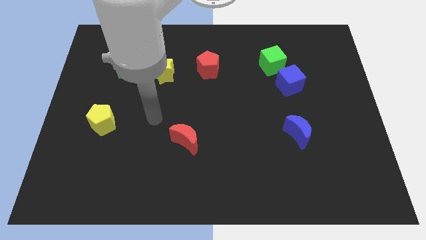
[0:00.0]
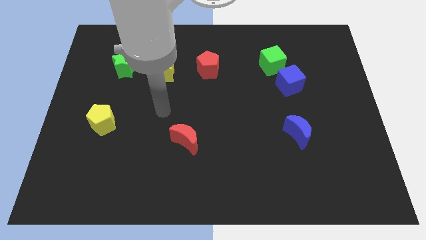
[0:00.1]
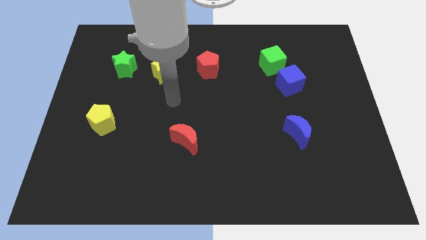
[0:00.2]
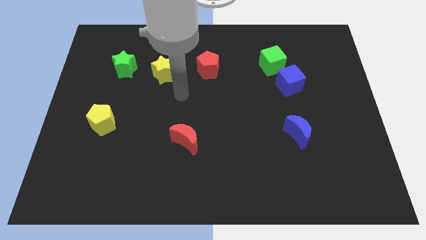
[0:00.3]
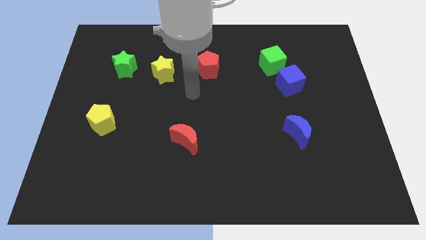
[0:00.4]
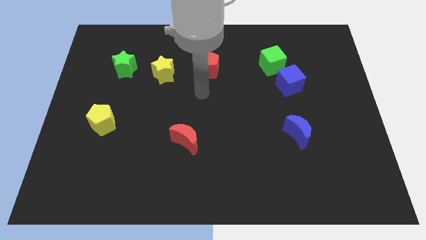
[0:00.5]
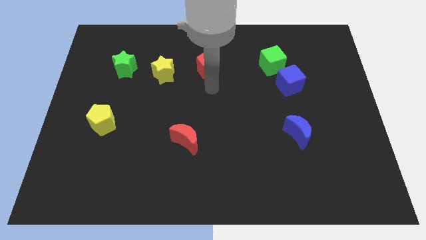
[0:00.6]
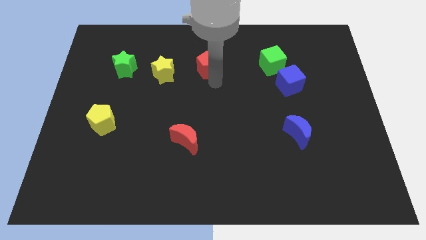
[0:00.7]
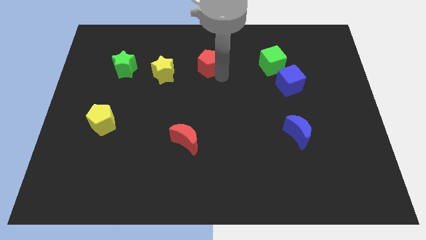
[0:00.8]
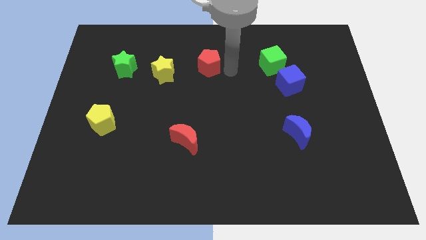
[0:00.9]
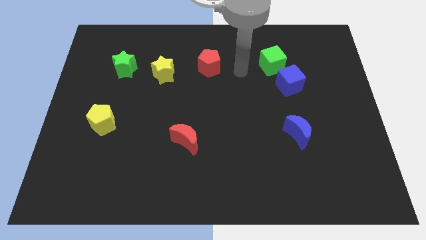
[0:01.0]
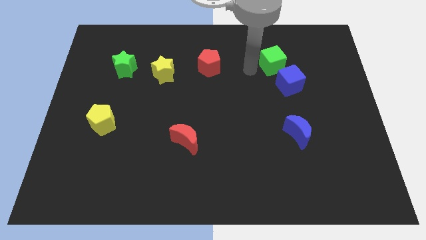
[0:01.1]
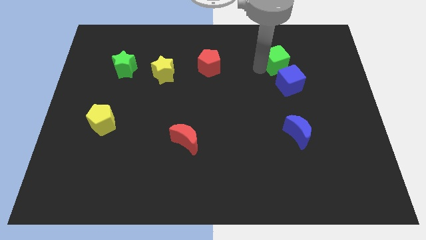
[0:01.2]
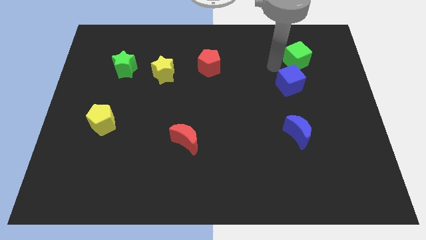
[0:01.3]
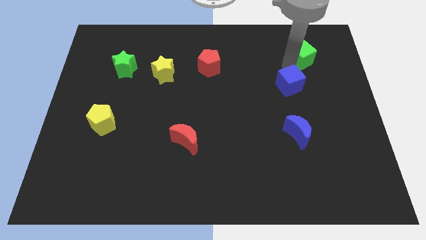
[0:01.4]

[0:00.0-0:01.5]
move the blue cube away from the green cube

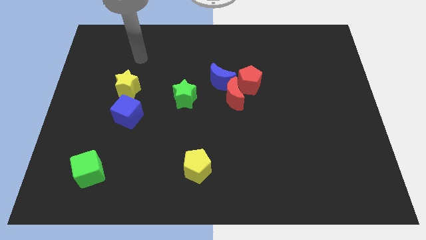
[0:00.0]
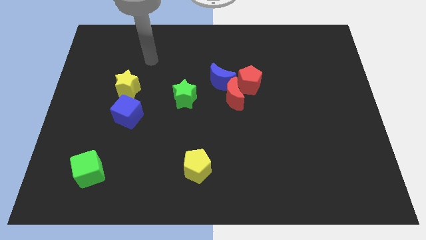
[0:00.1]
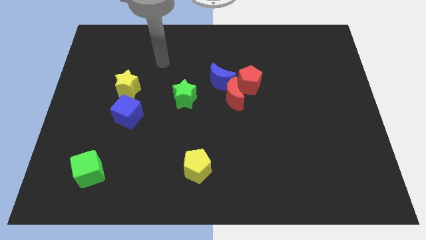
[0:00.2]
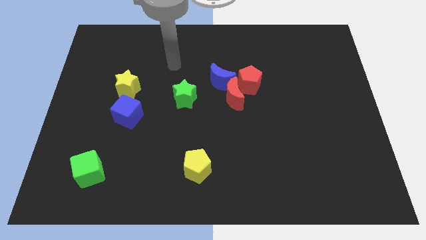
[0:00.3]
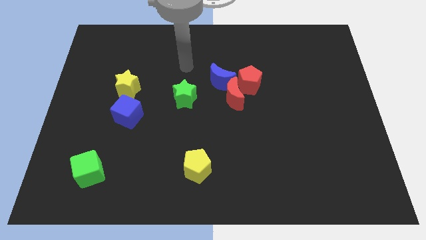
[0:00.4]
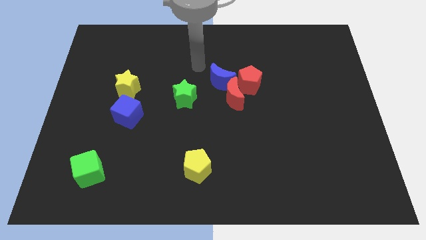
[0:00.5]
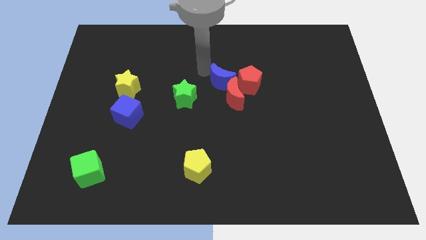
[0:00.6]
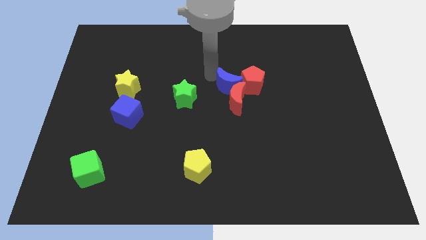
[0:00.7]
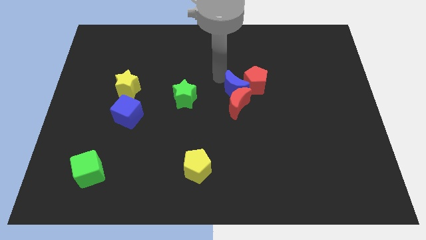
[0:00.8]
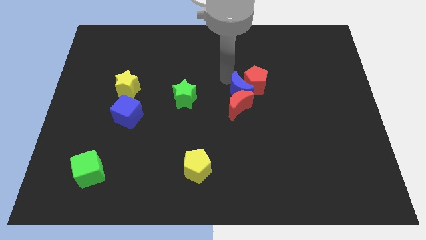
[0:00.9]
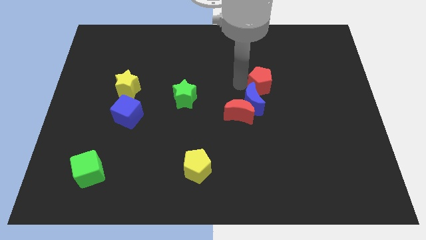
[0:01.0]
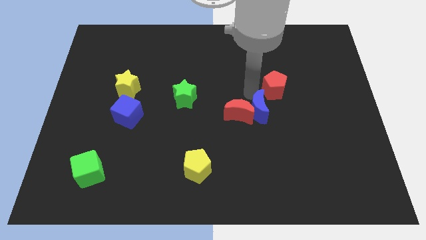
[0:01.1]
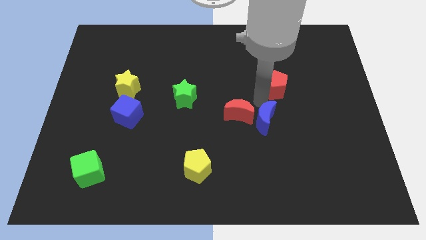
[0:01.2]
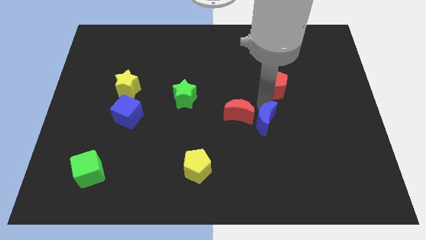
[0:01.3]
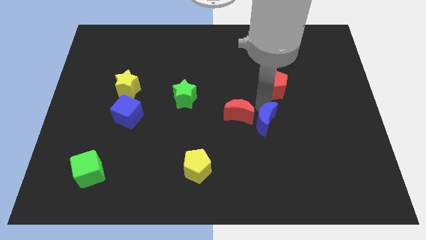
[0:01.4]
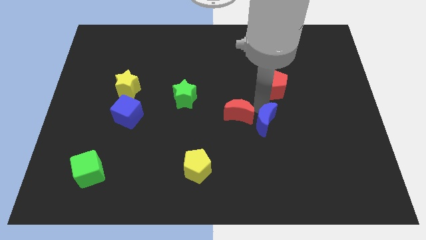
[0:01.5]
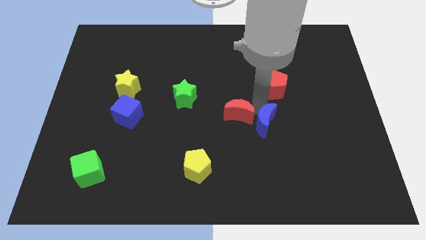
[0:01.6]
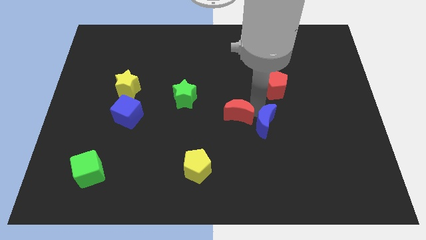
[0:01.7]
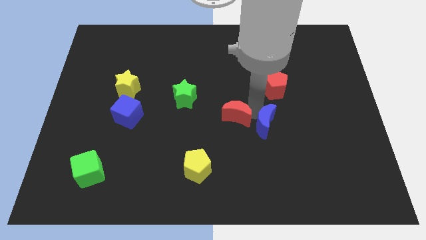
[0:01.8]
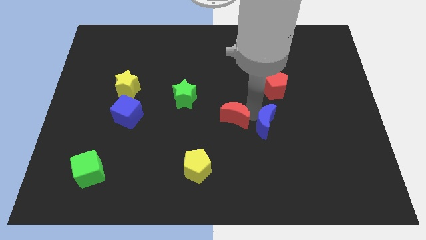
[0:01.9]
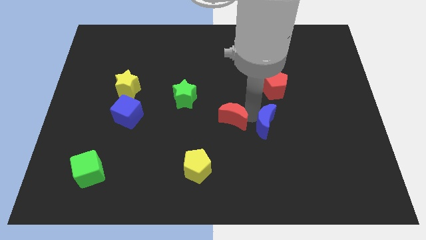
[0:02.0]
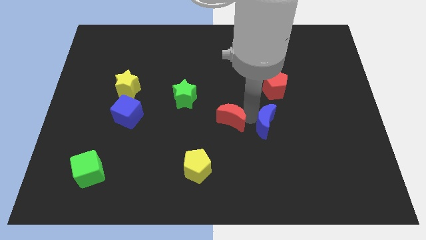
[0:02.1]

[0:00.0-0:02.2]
separate the red moon from the blue moon and red pentagon

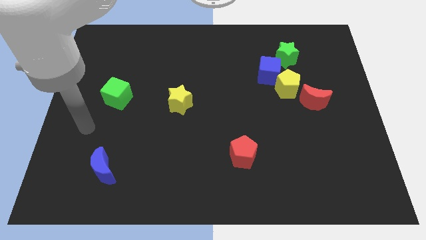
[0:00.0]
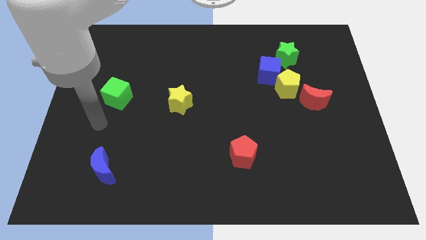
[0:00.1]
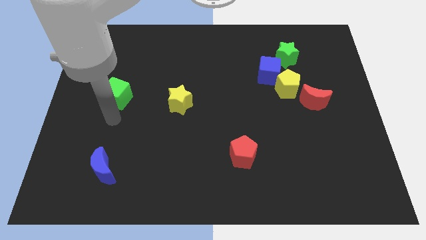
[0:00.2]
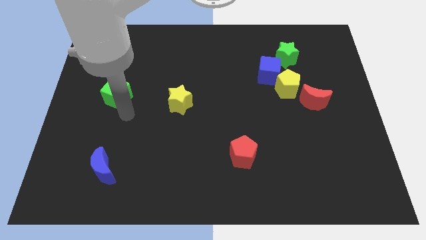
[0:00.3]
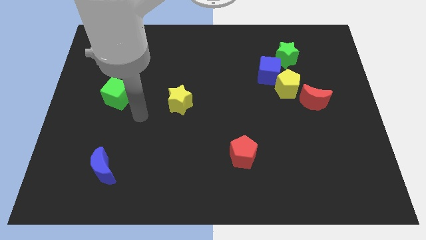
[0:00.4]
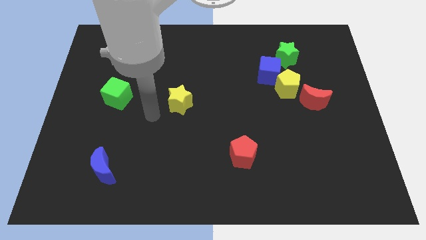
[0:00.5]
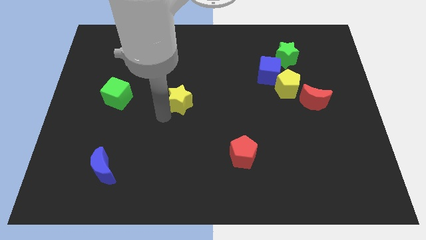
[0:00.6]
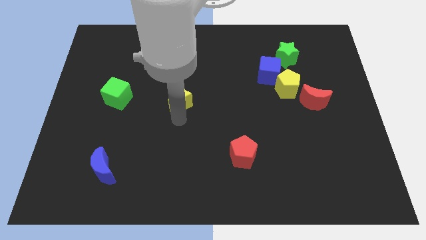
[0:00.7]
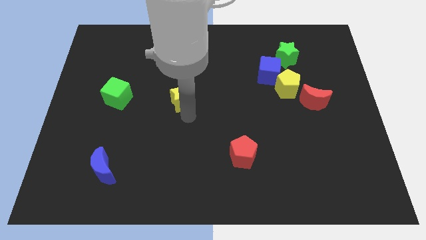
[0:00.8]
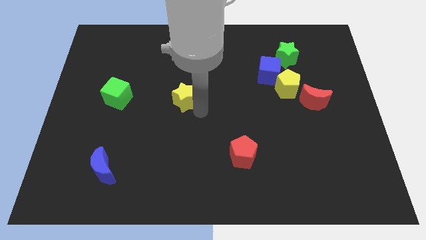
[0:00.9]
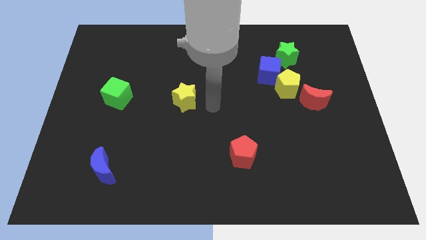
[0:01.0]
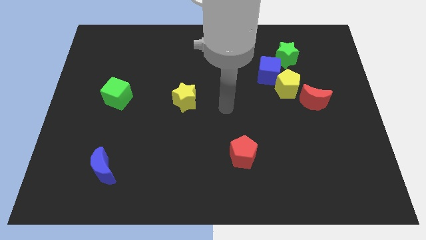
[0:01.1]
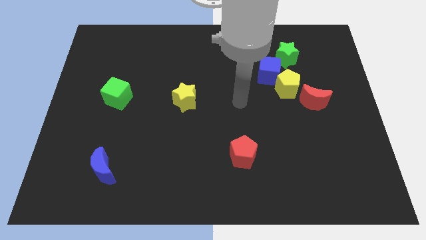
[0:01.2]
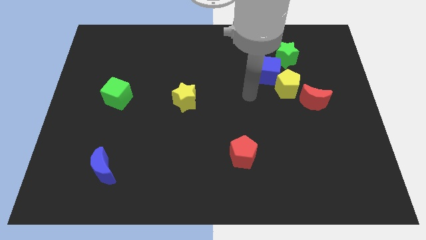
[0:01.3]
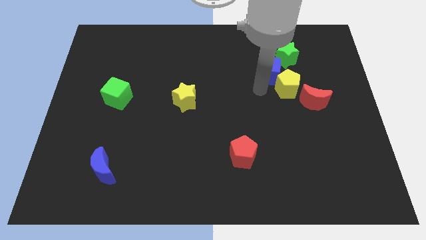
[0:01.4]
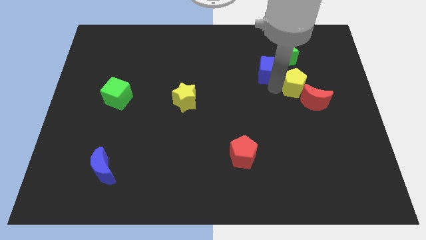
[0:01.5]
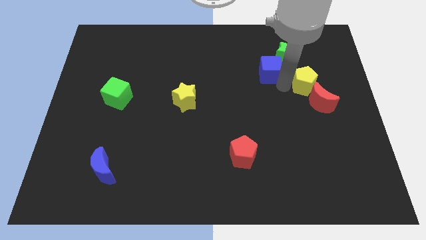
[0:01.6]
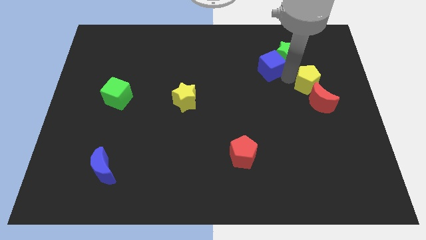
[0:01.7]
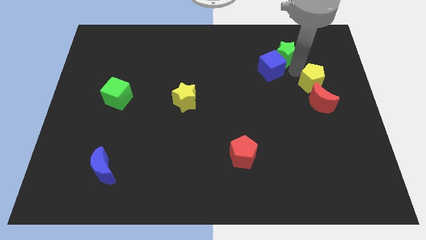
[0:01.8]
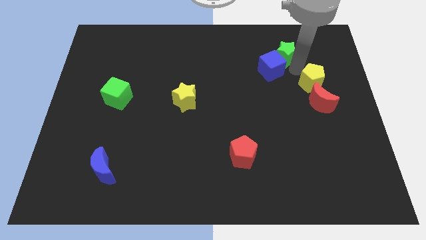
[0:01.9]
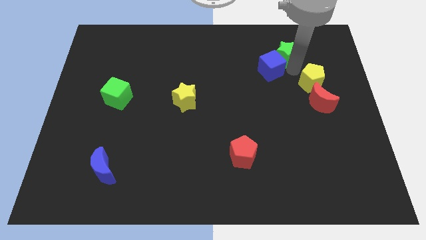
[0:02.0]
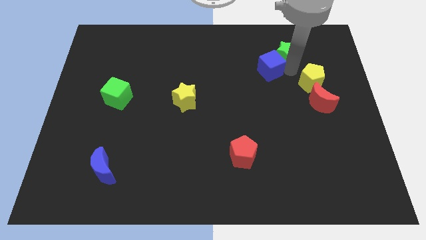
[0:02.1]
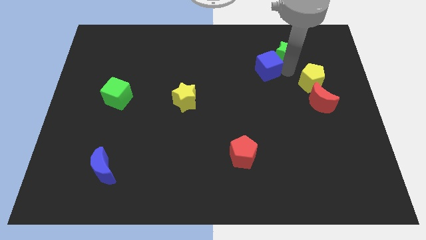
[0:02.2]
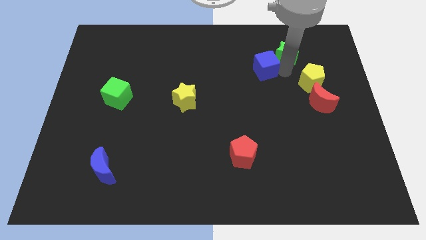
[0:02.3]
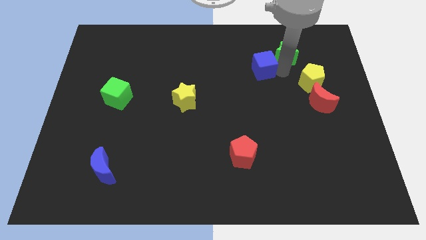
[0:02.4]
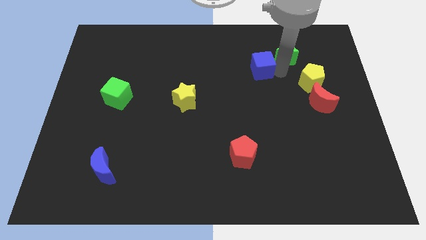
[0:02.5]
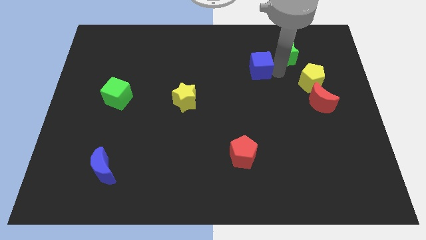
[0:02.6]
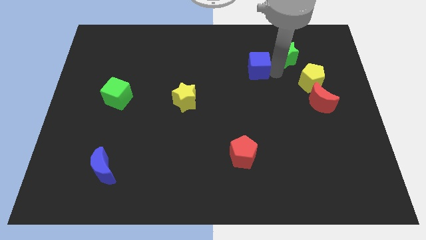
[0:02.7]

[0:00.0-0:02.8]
move the blue cube away from the yellow pentagon and green star

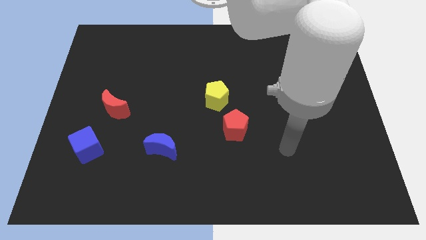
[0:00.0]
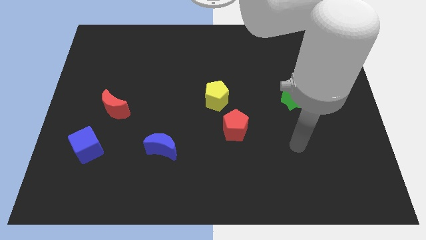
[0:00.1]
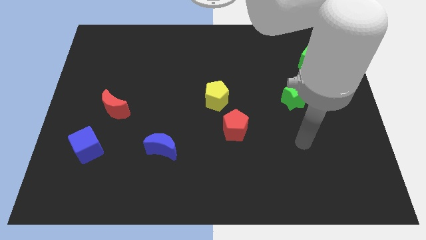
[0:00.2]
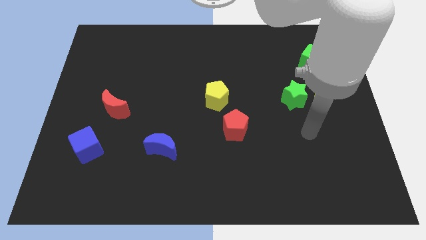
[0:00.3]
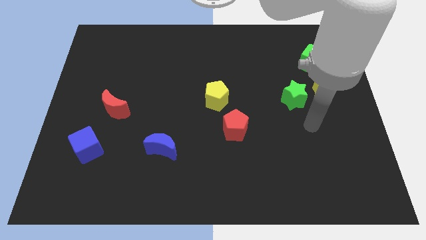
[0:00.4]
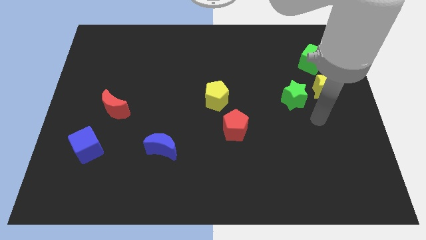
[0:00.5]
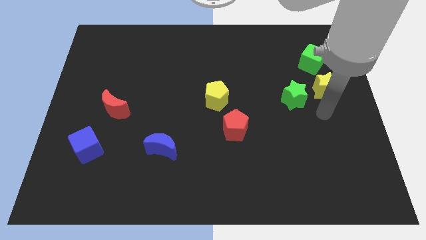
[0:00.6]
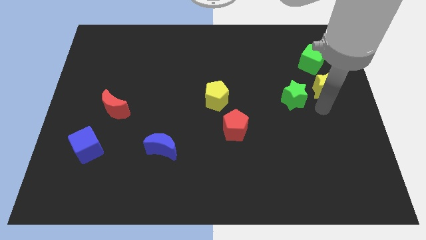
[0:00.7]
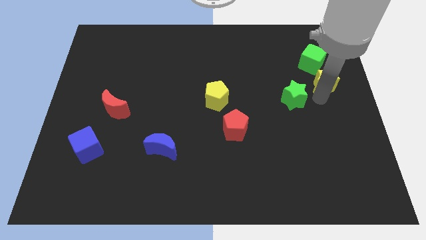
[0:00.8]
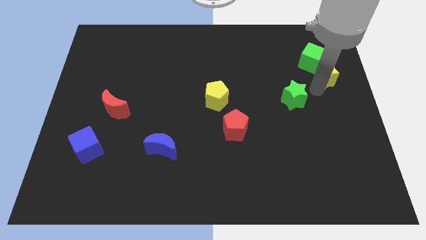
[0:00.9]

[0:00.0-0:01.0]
separate the green star from the yellow star

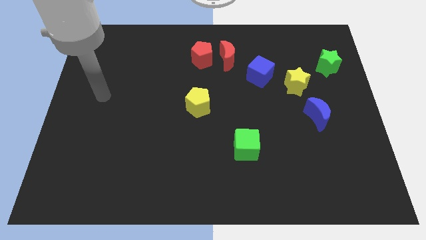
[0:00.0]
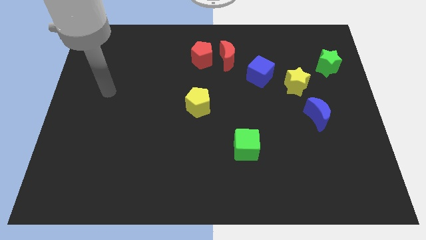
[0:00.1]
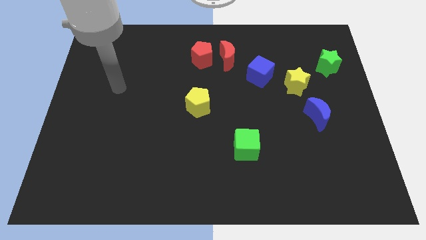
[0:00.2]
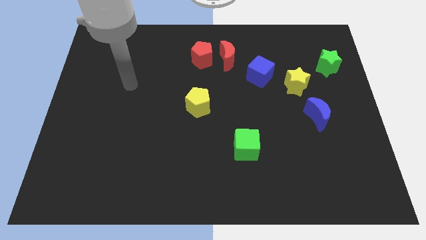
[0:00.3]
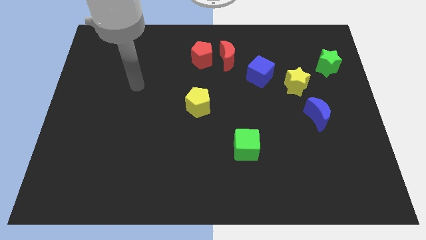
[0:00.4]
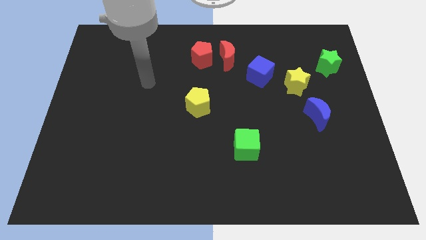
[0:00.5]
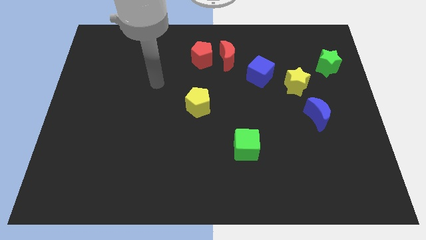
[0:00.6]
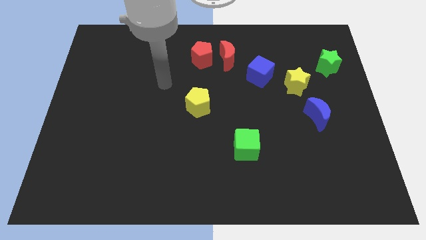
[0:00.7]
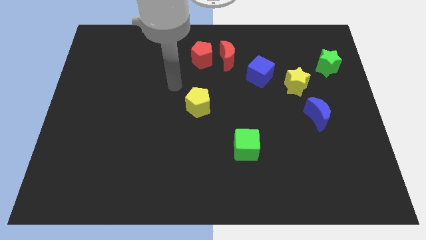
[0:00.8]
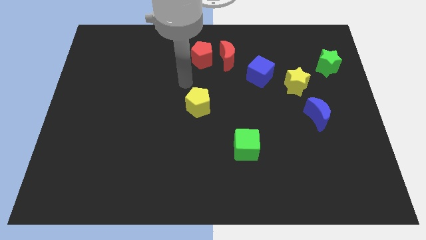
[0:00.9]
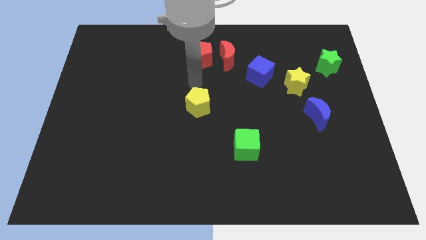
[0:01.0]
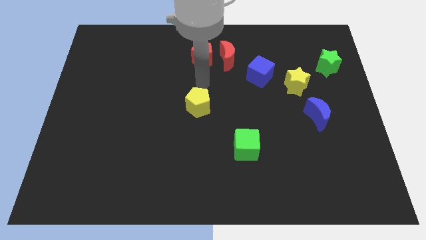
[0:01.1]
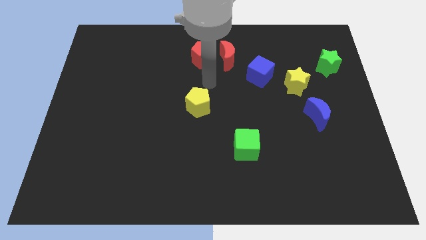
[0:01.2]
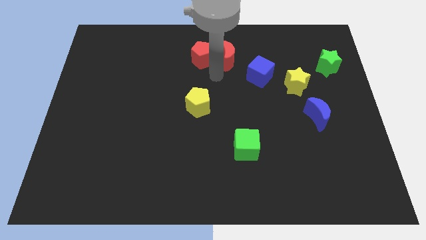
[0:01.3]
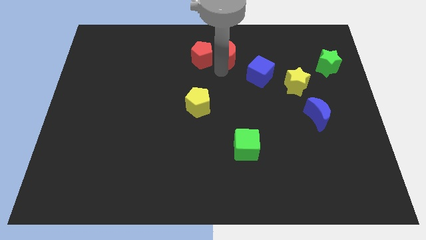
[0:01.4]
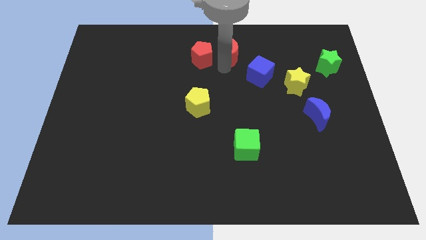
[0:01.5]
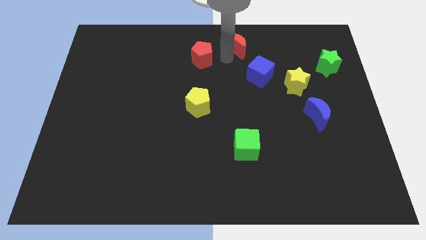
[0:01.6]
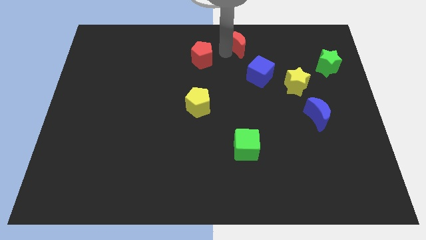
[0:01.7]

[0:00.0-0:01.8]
pull the red pentagon apart from the red moon
